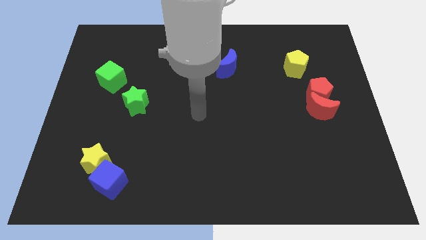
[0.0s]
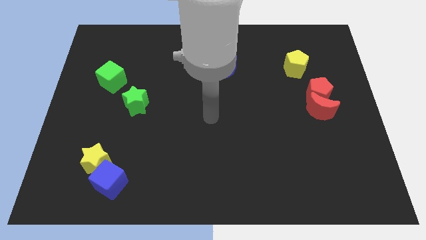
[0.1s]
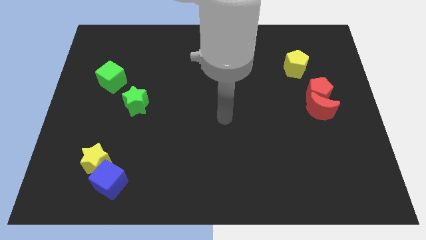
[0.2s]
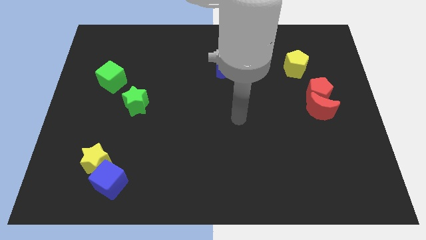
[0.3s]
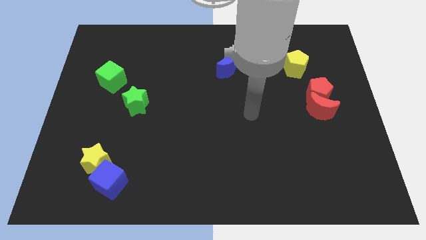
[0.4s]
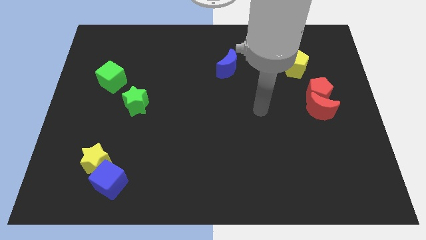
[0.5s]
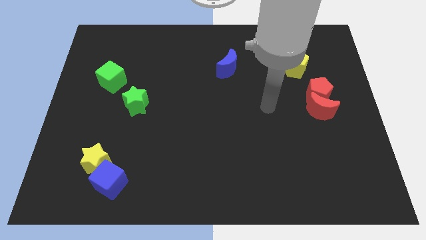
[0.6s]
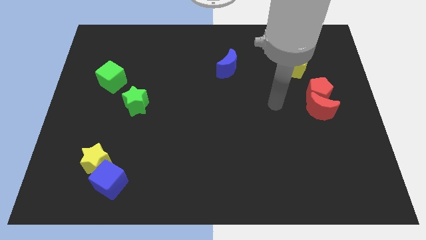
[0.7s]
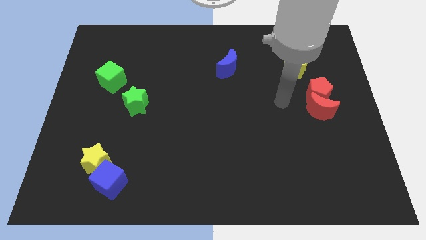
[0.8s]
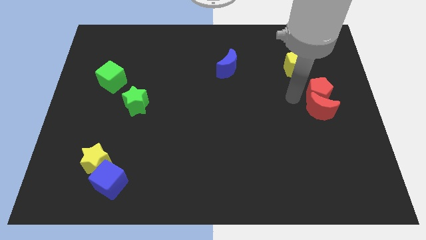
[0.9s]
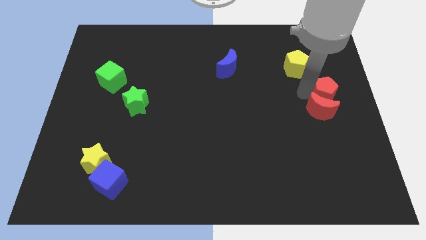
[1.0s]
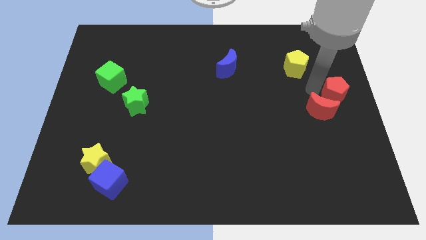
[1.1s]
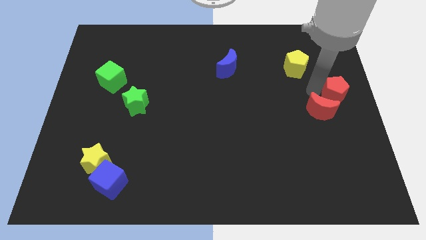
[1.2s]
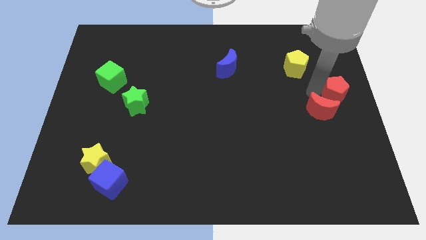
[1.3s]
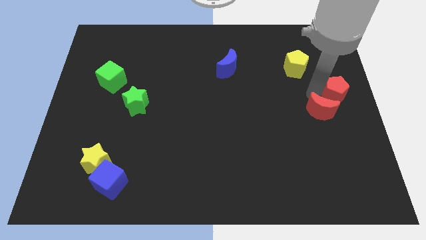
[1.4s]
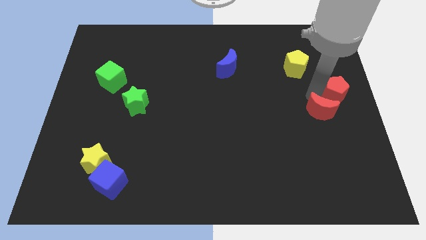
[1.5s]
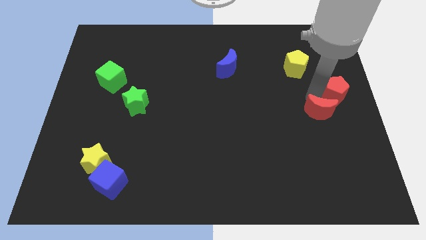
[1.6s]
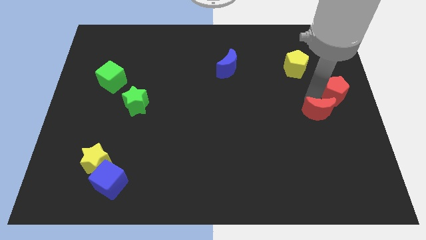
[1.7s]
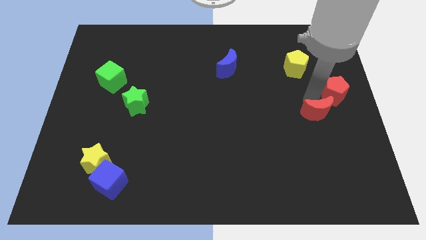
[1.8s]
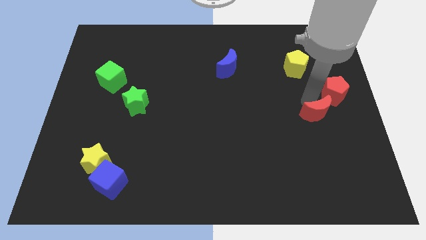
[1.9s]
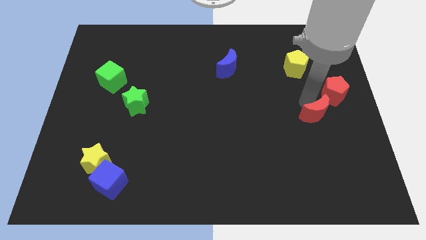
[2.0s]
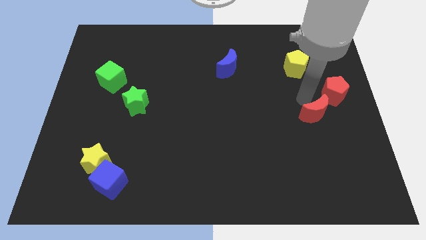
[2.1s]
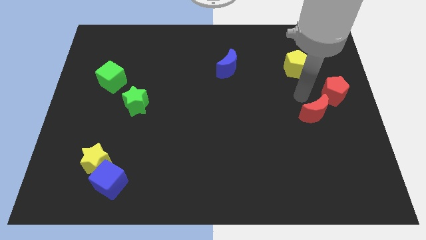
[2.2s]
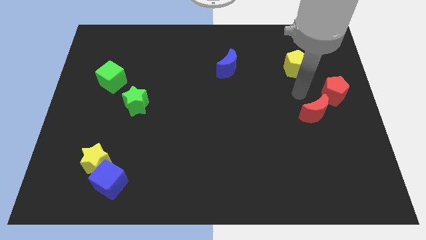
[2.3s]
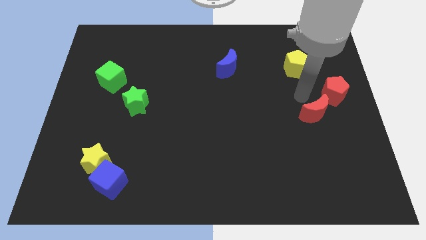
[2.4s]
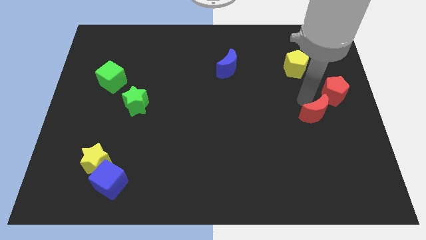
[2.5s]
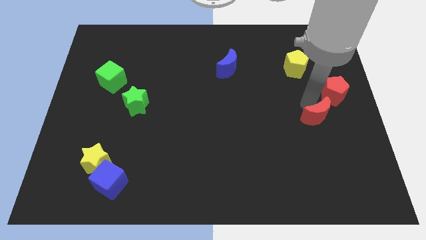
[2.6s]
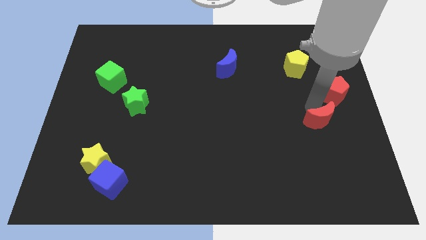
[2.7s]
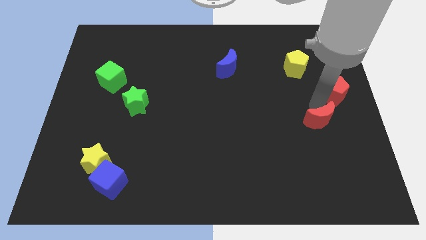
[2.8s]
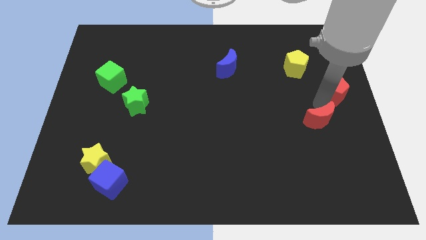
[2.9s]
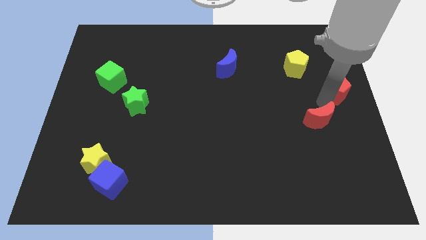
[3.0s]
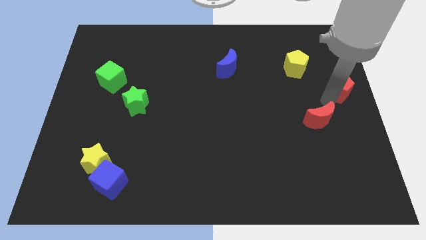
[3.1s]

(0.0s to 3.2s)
move the red moon away from the red pentagon

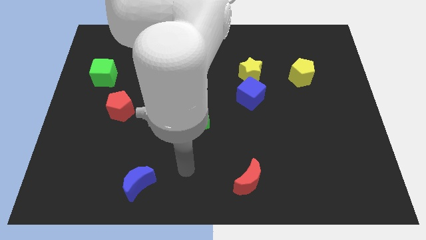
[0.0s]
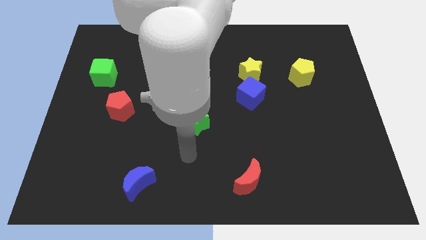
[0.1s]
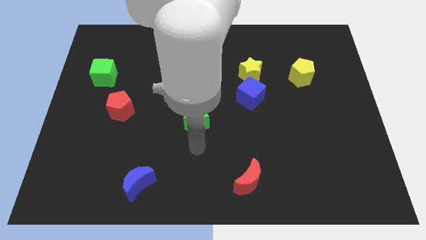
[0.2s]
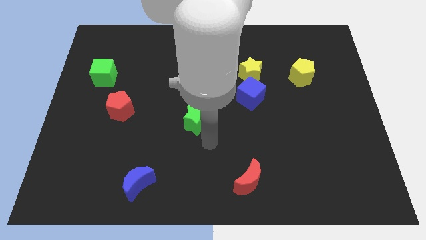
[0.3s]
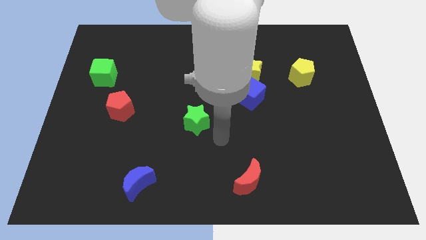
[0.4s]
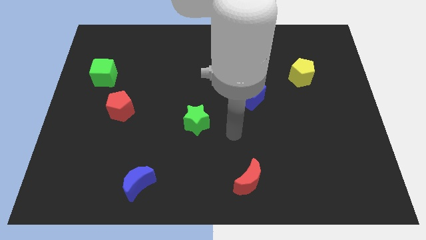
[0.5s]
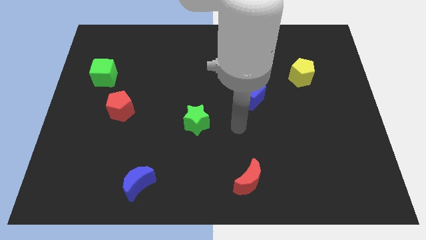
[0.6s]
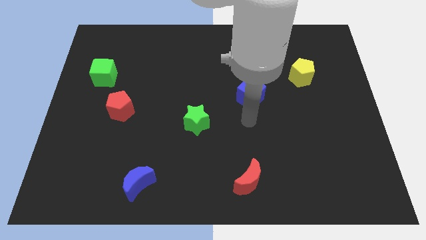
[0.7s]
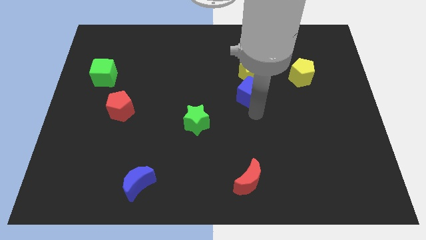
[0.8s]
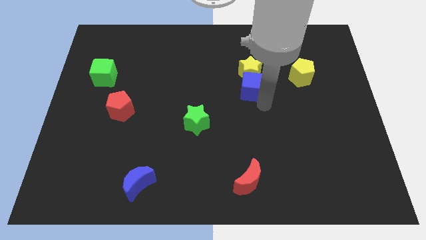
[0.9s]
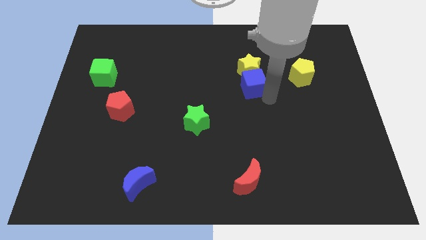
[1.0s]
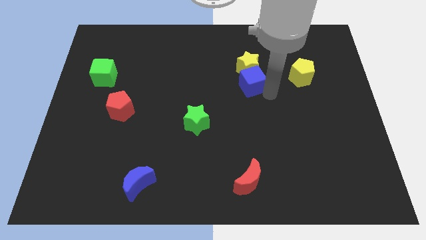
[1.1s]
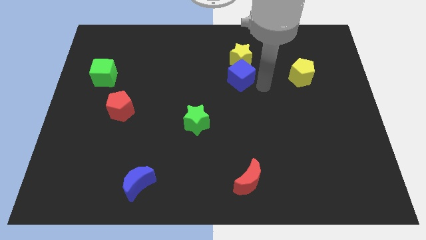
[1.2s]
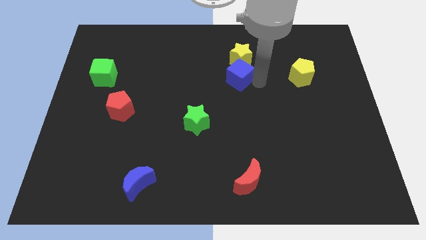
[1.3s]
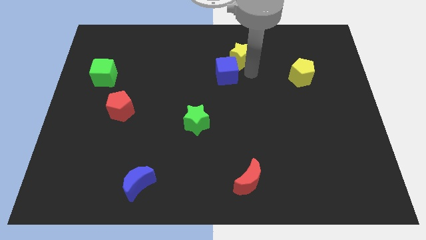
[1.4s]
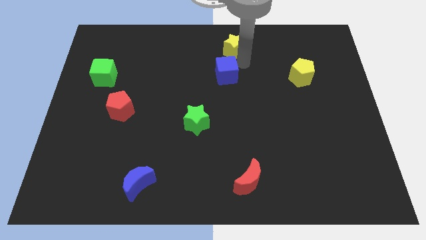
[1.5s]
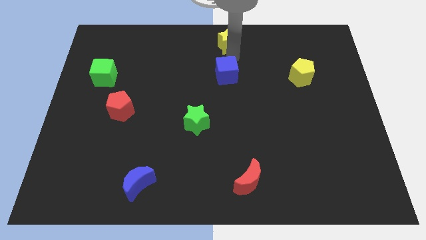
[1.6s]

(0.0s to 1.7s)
move the blue cube away from the yellow star

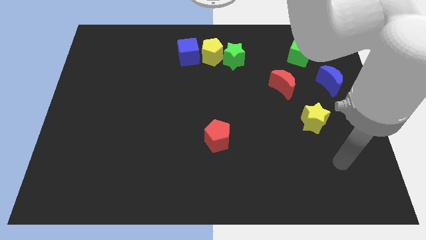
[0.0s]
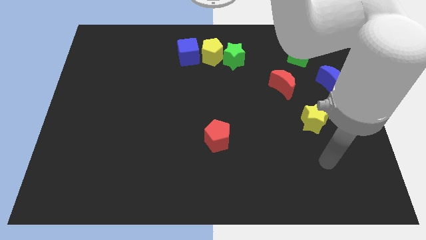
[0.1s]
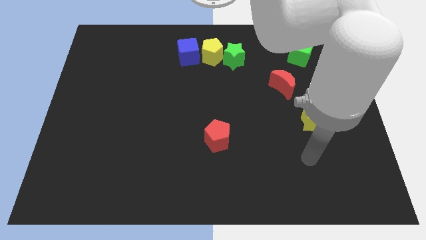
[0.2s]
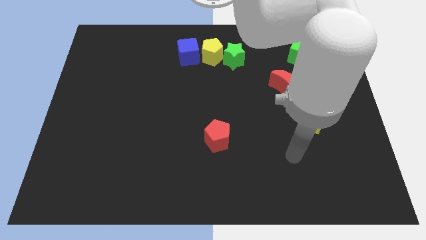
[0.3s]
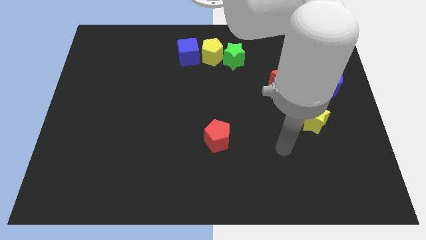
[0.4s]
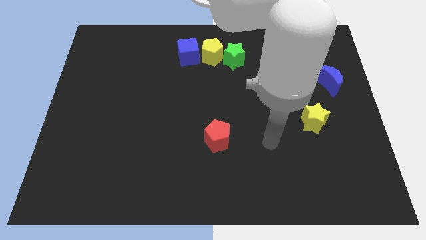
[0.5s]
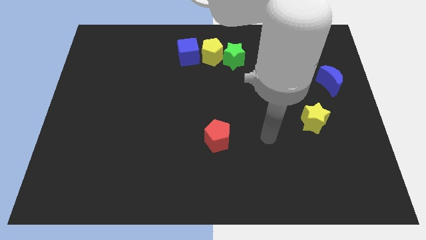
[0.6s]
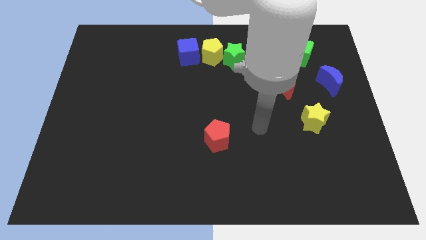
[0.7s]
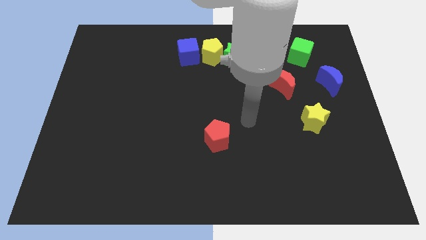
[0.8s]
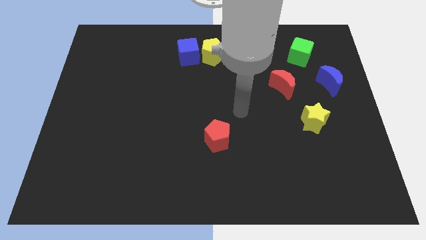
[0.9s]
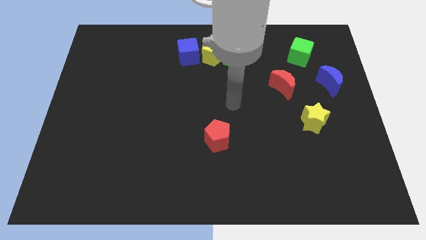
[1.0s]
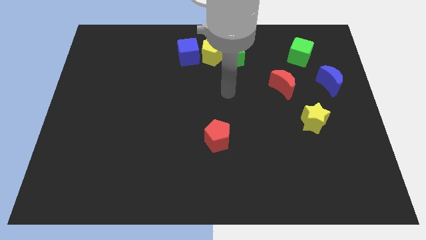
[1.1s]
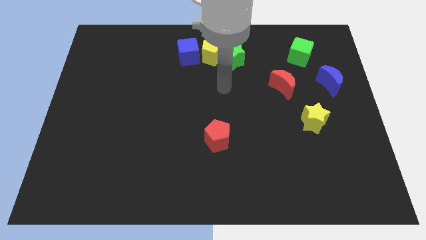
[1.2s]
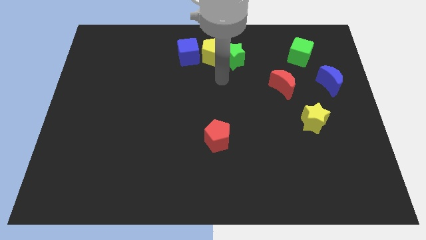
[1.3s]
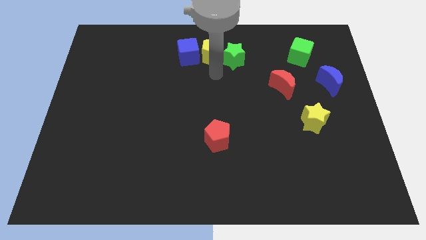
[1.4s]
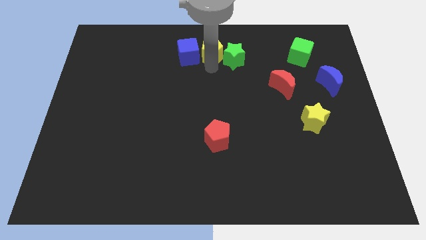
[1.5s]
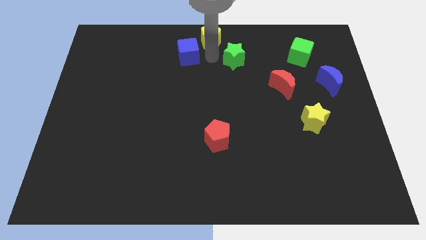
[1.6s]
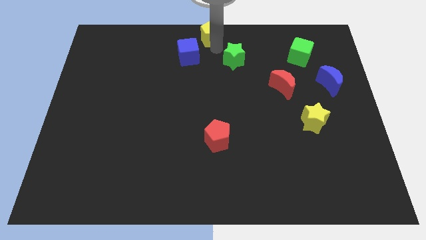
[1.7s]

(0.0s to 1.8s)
pull the green star apart from the yellow pentagon

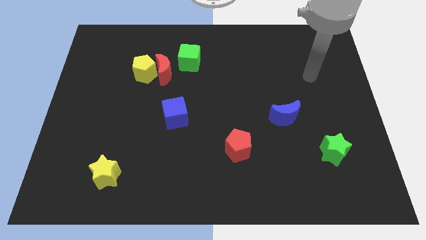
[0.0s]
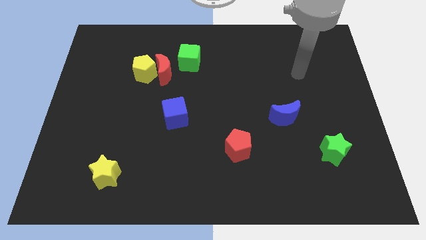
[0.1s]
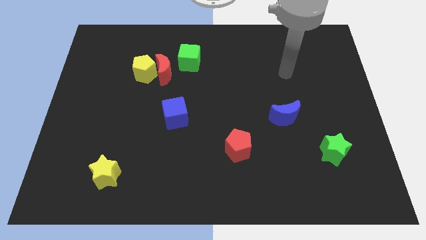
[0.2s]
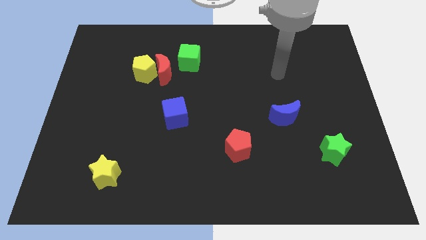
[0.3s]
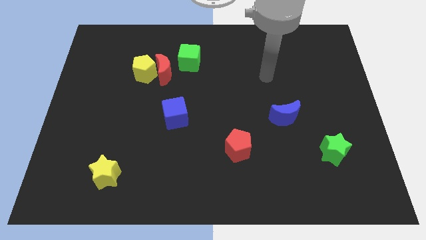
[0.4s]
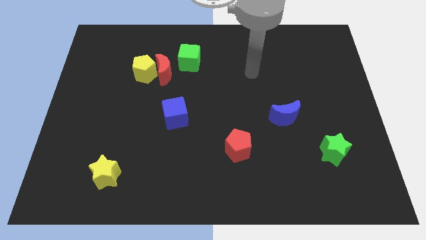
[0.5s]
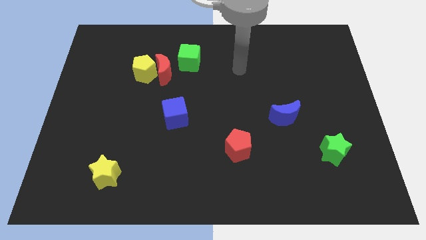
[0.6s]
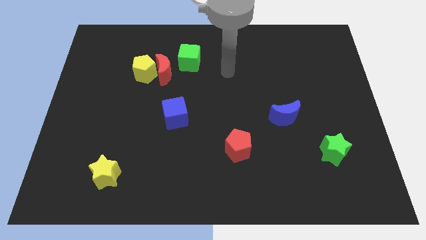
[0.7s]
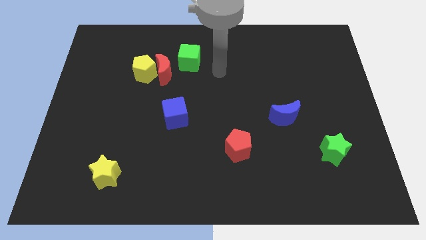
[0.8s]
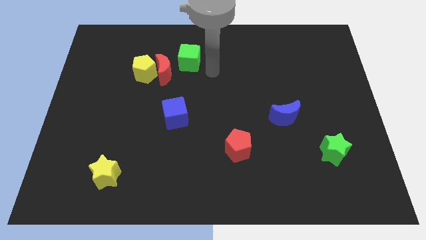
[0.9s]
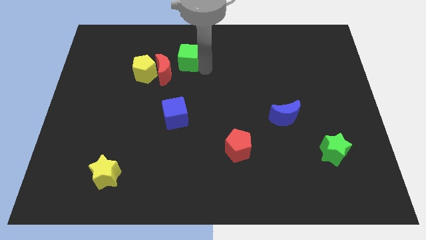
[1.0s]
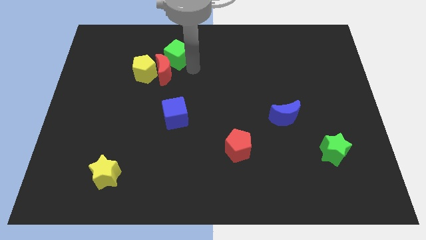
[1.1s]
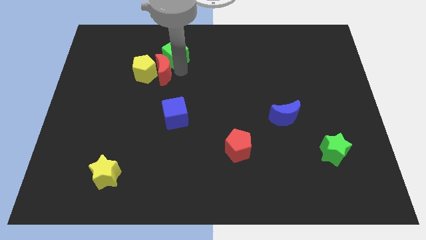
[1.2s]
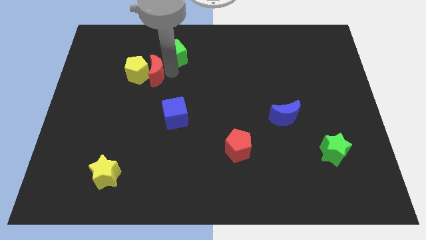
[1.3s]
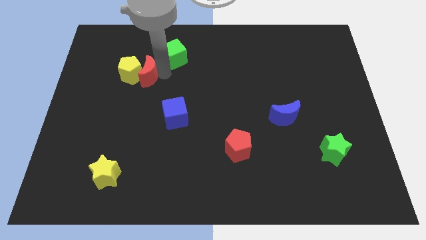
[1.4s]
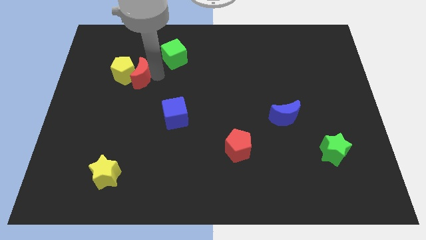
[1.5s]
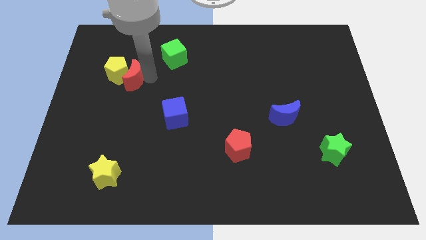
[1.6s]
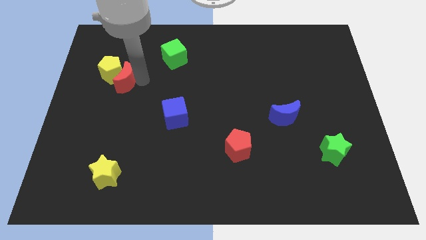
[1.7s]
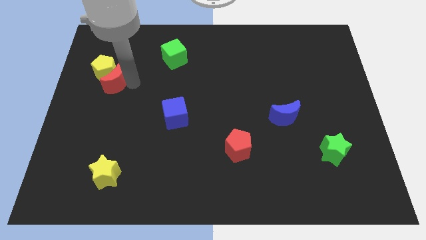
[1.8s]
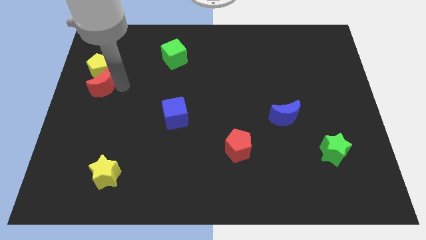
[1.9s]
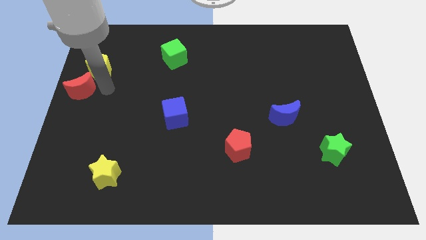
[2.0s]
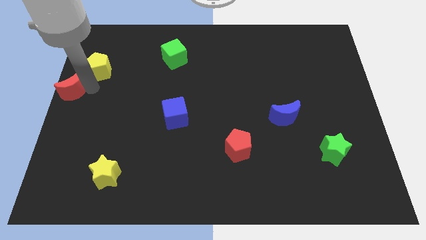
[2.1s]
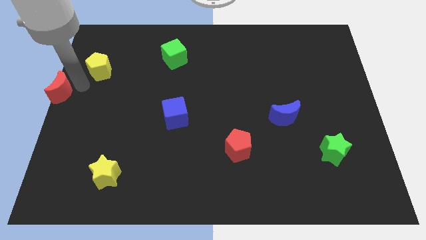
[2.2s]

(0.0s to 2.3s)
pull the yellow pentagon apart from the red moon
